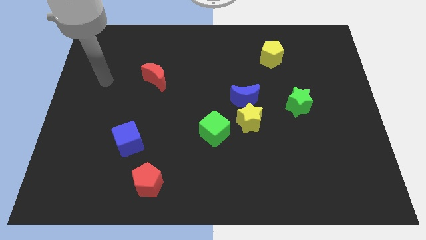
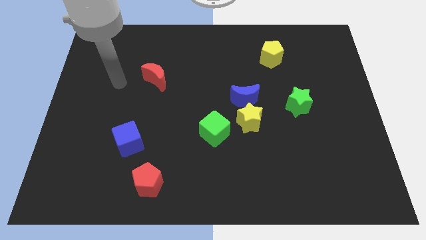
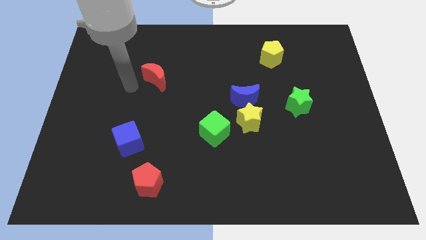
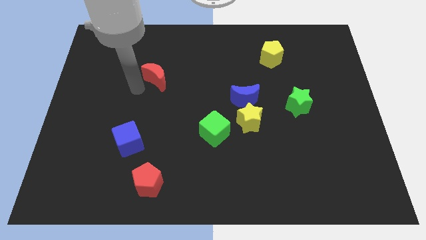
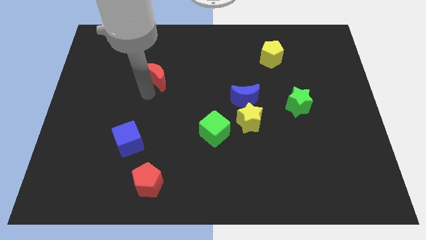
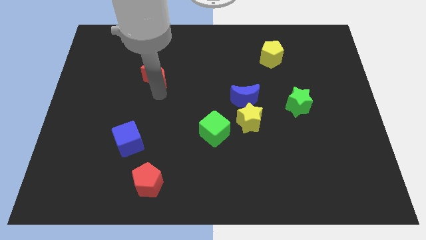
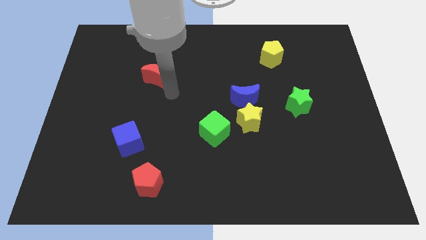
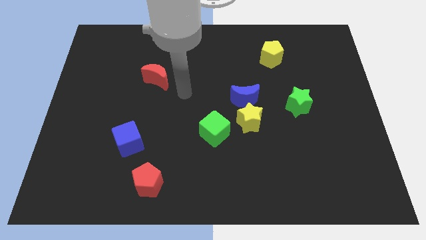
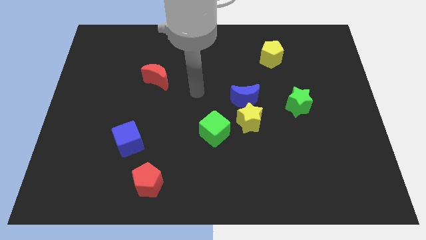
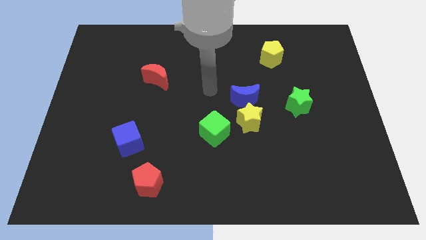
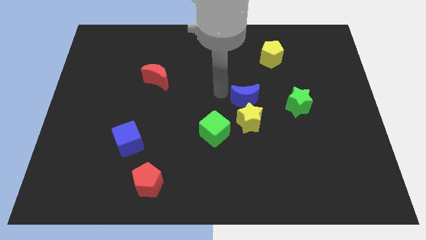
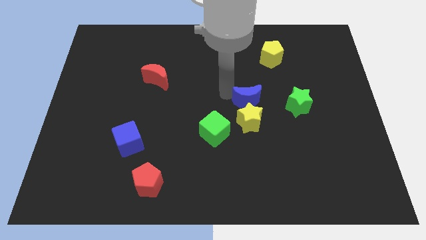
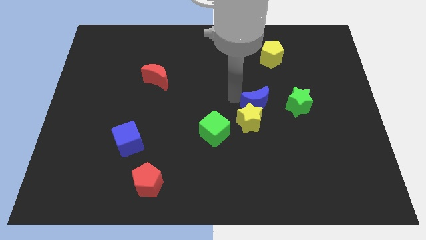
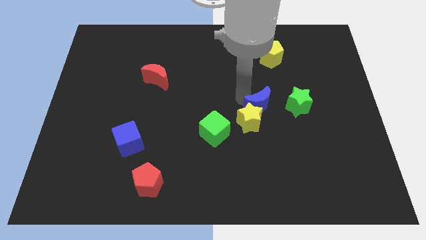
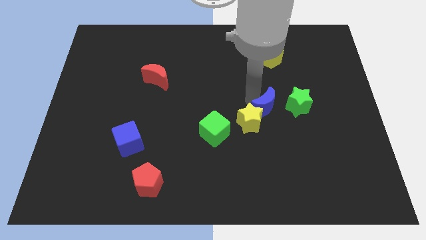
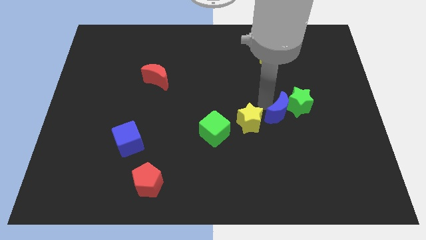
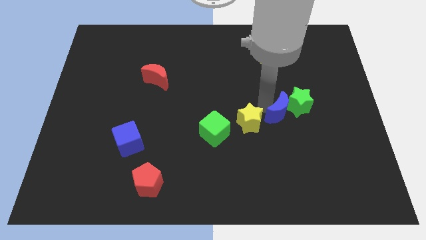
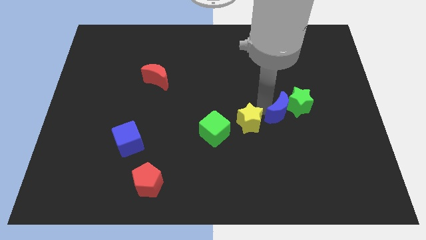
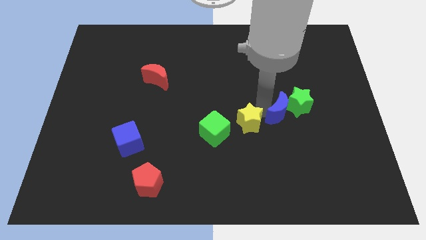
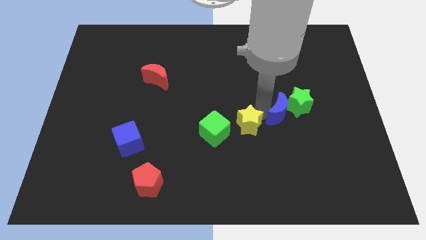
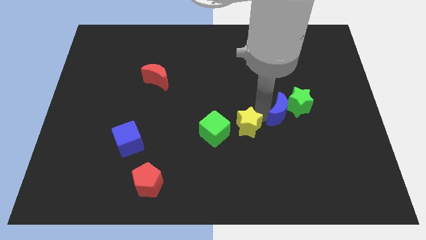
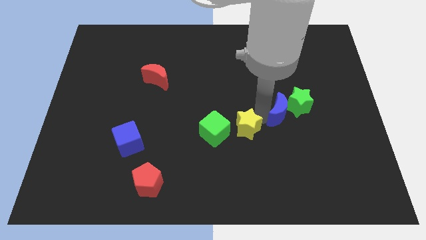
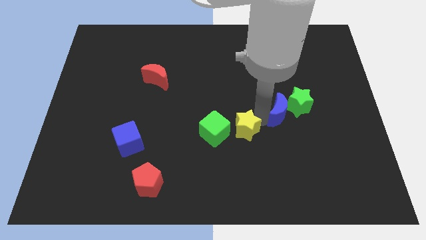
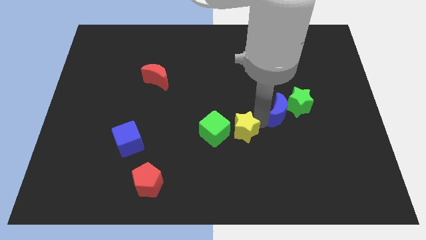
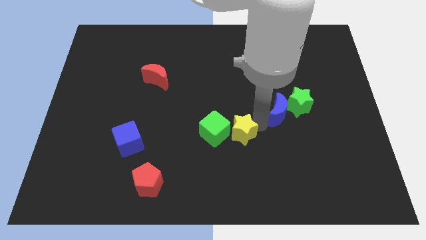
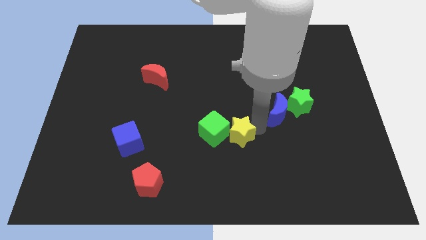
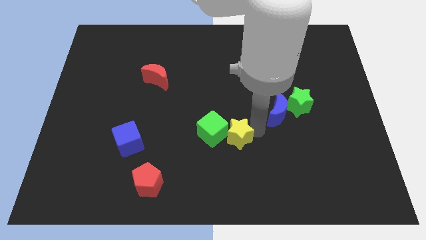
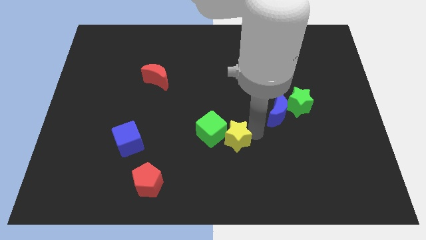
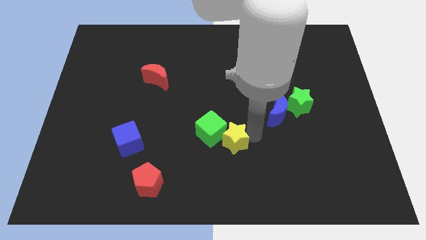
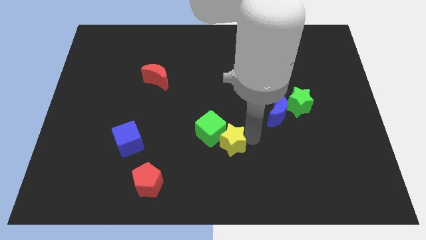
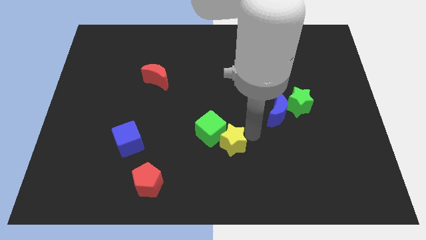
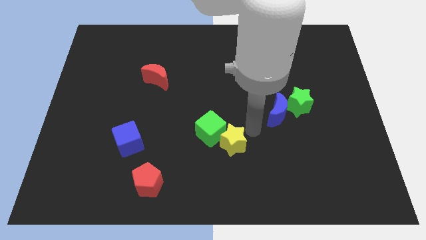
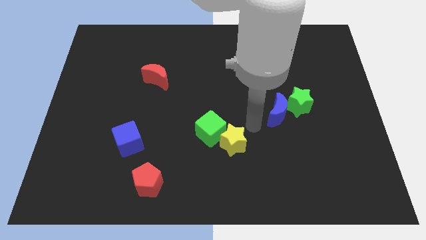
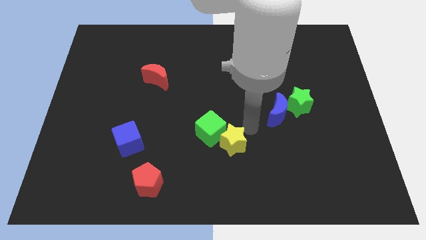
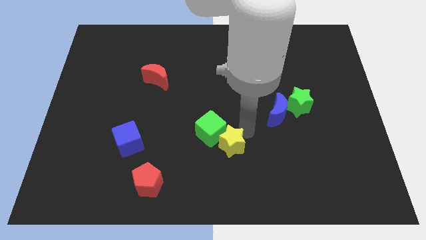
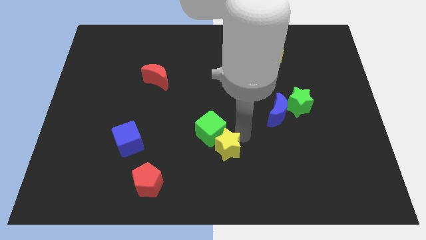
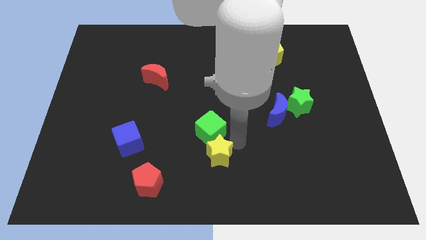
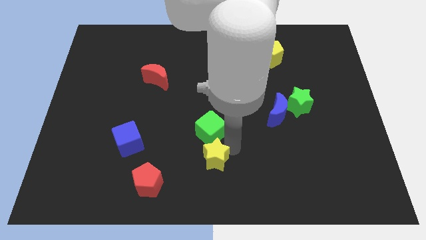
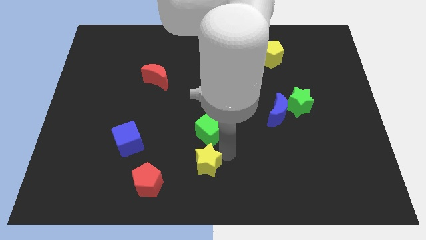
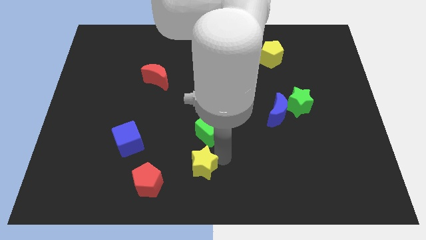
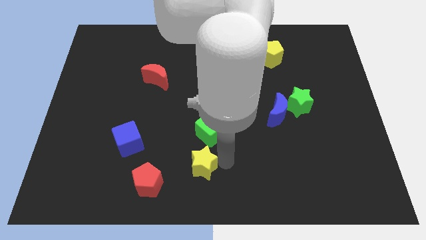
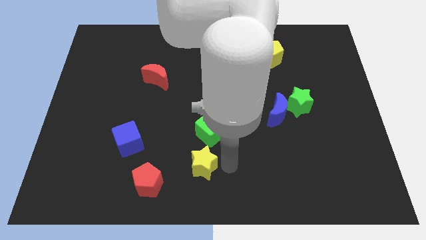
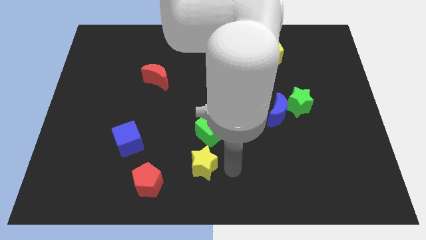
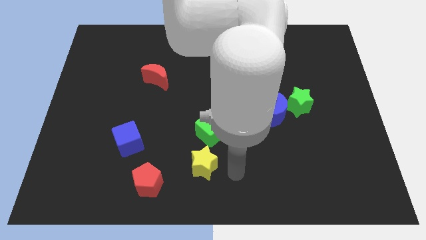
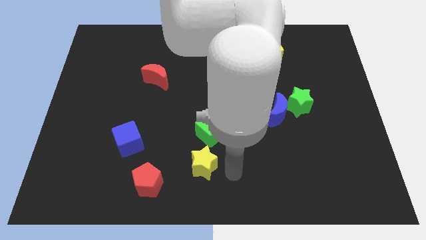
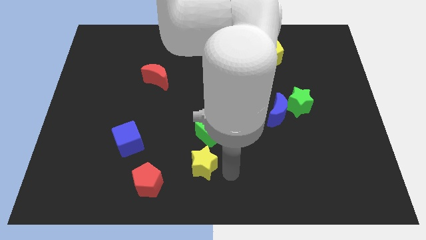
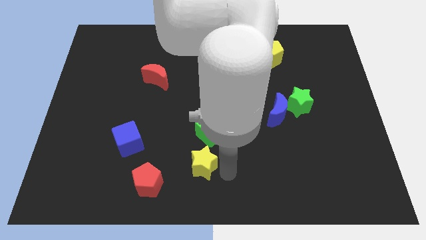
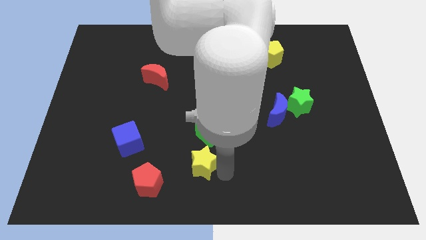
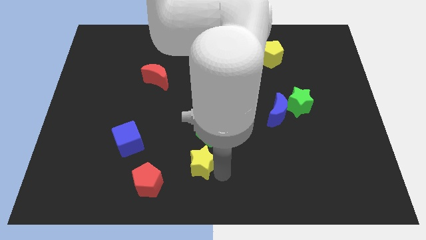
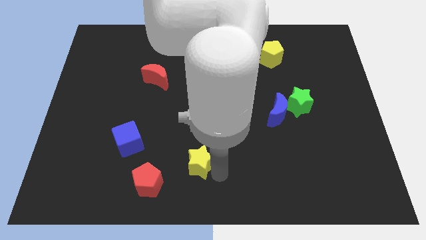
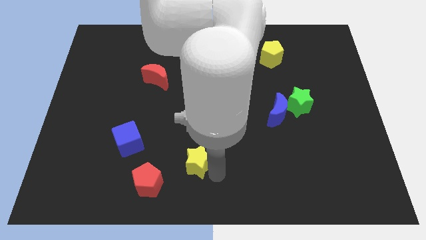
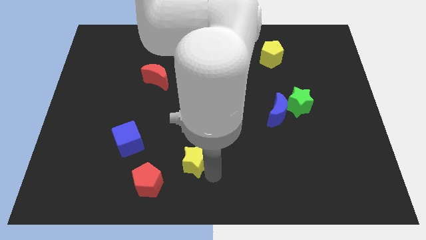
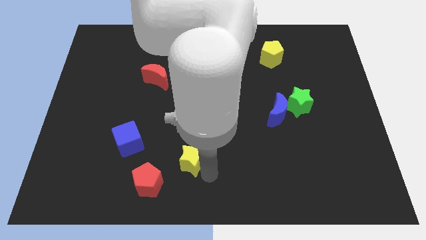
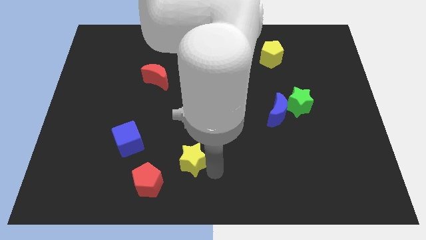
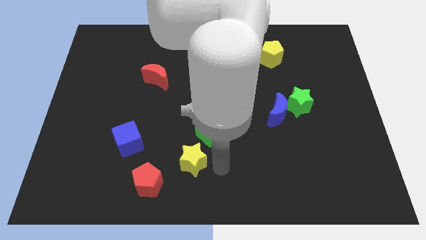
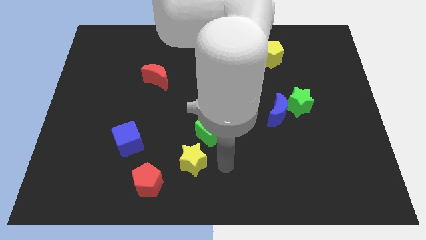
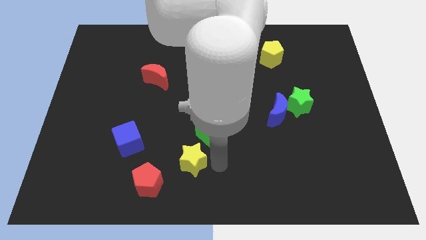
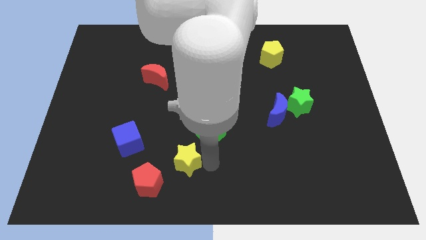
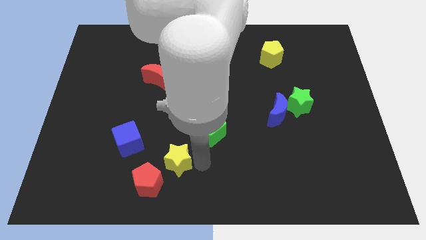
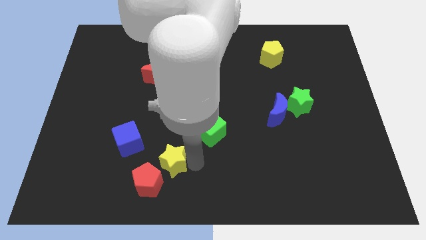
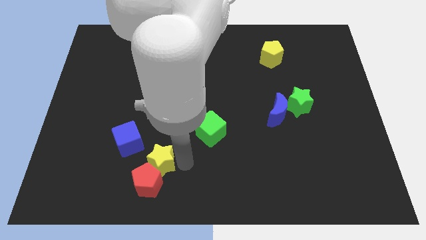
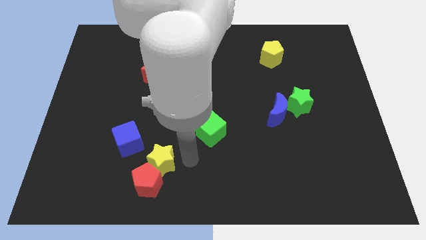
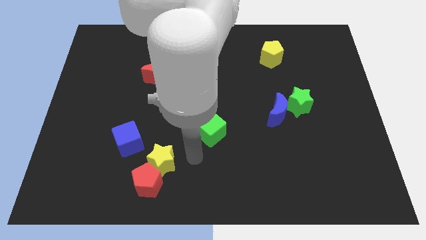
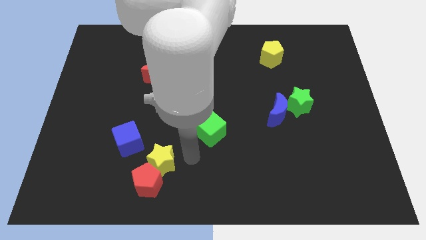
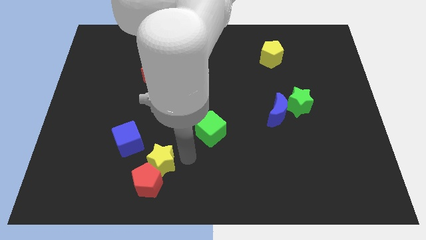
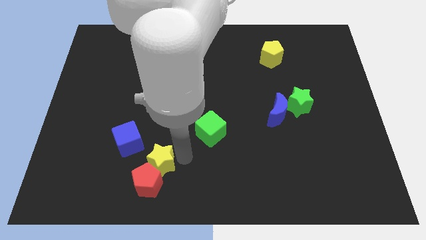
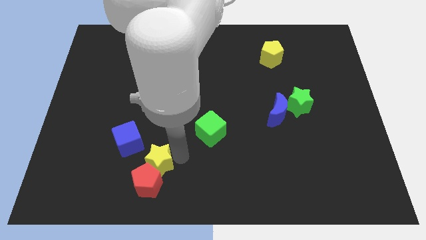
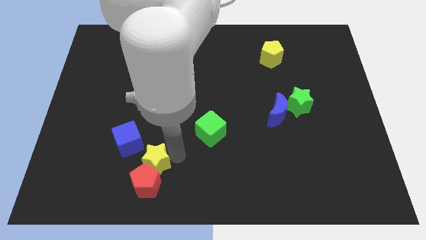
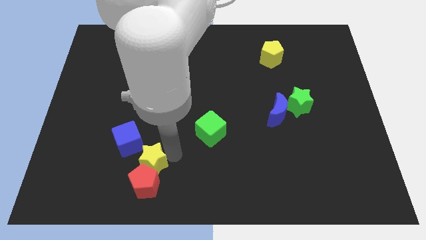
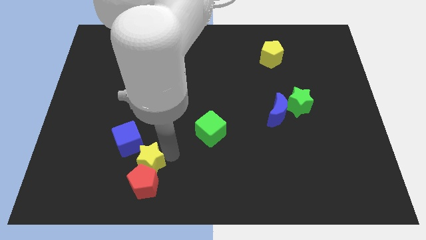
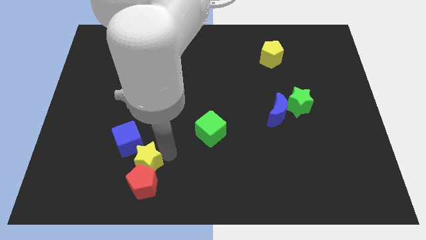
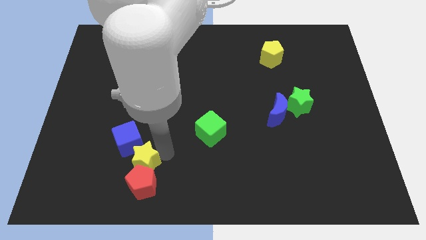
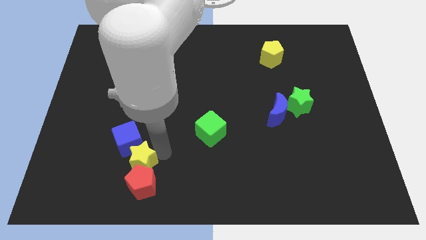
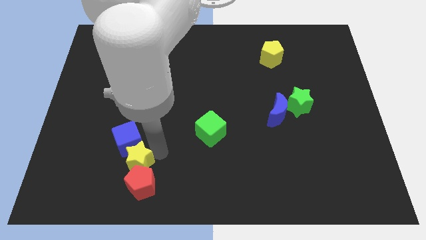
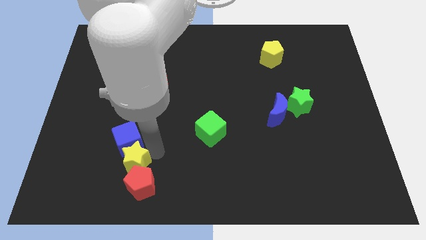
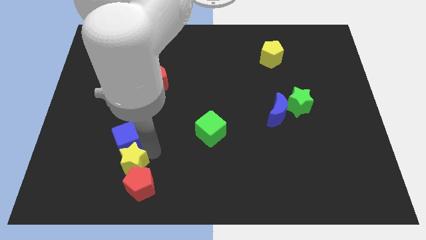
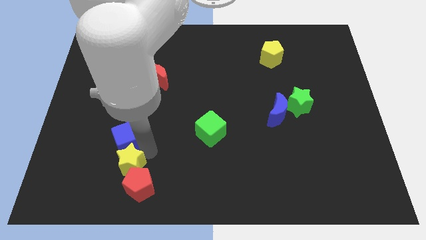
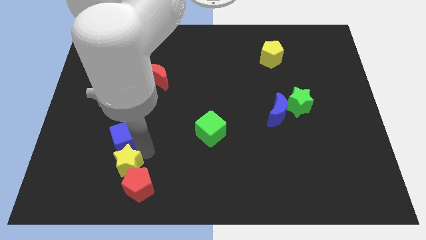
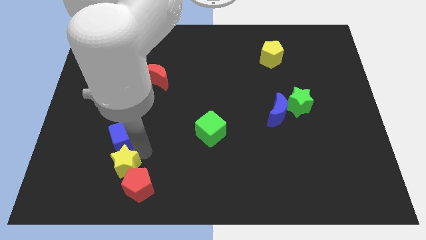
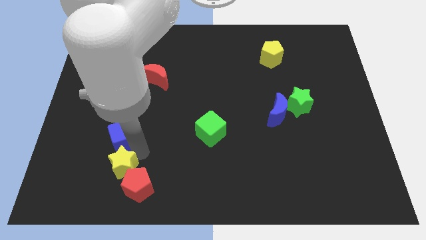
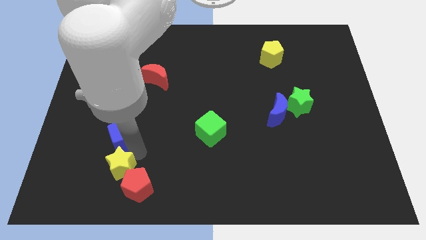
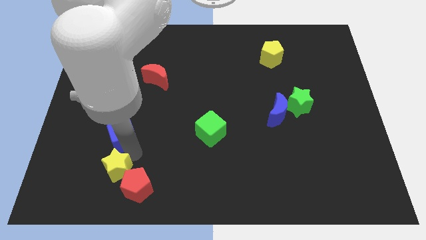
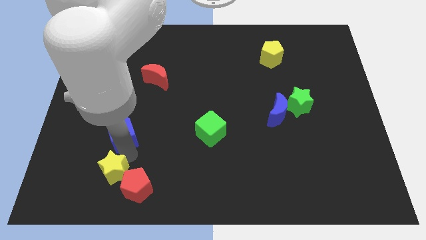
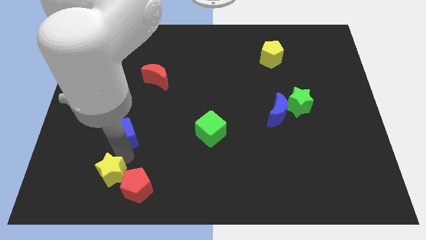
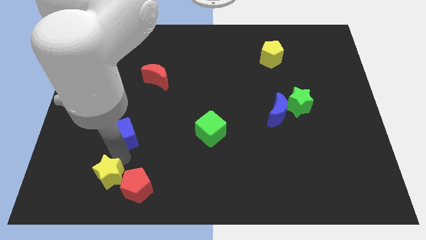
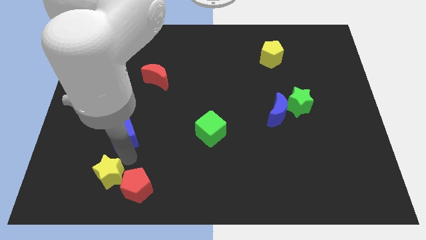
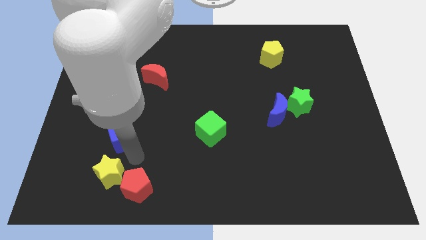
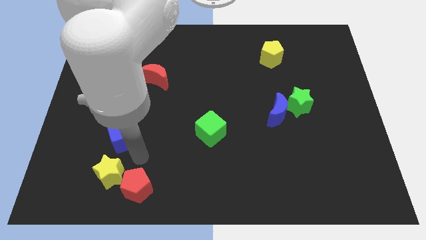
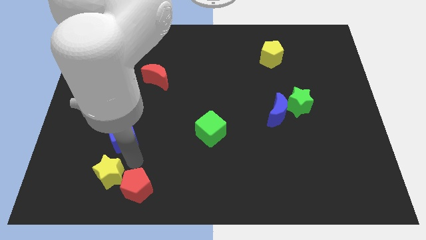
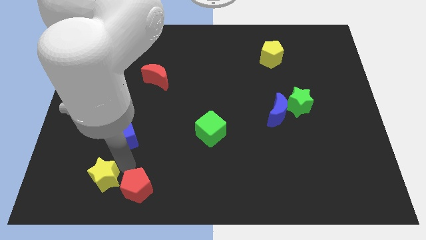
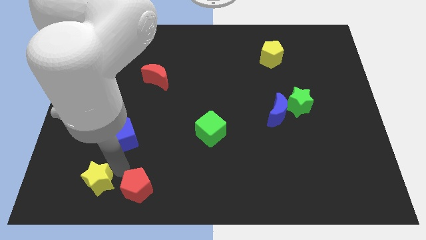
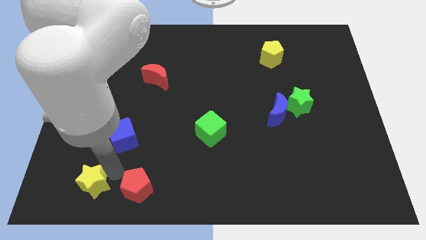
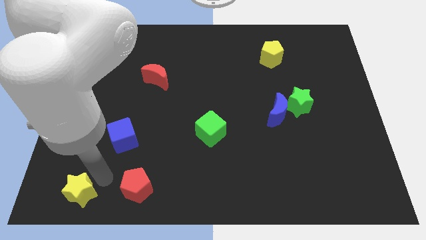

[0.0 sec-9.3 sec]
push the yellow star to the bottom left
